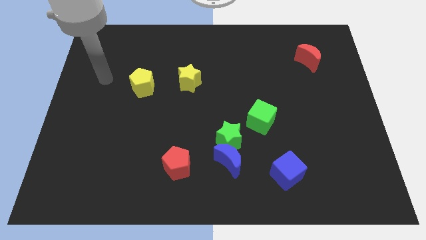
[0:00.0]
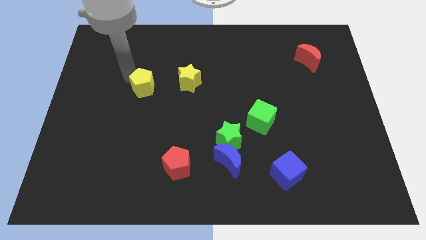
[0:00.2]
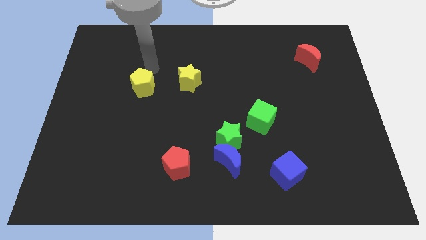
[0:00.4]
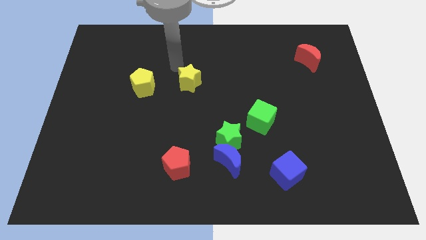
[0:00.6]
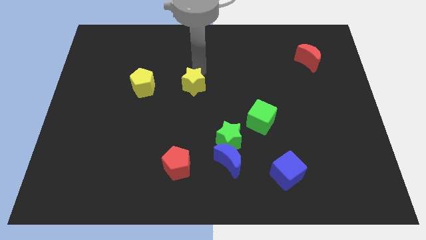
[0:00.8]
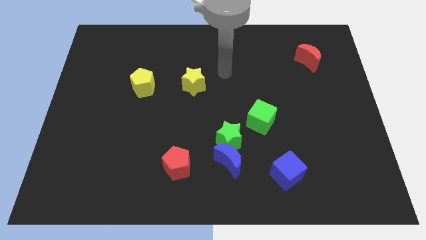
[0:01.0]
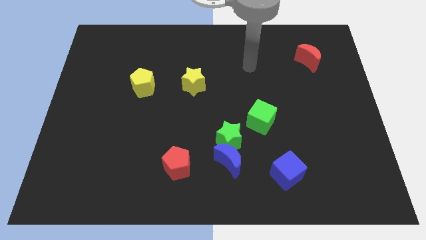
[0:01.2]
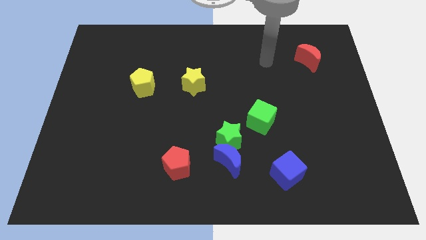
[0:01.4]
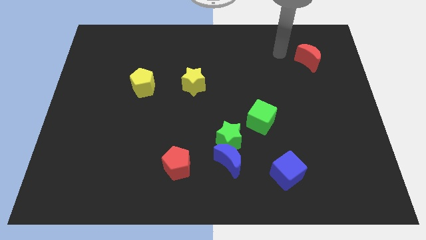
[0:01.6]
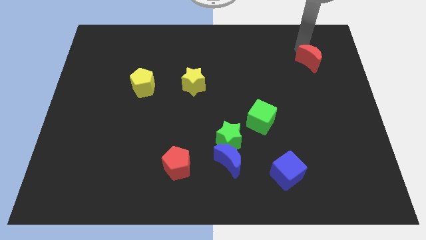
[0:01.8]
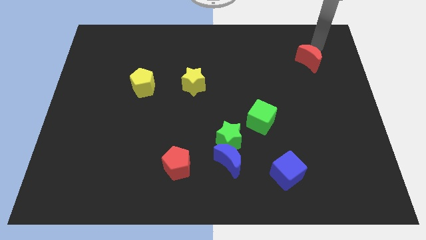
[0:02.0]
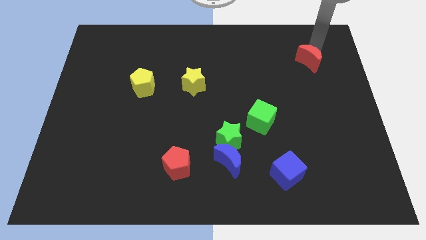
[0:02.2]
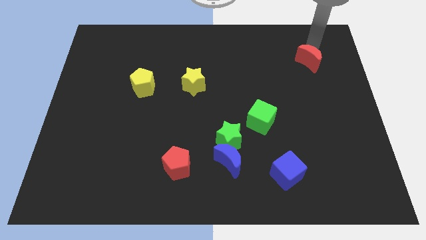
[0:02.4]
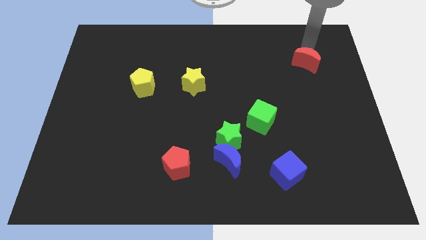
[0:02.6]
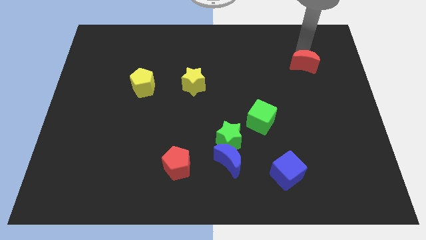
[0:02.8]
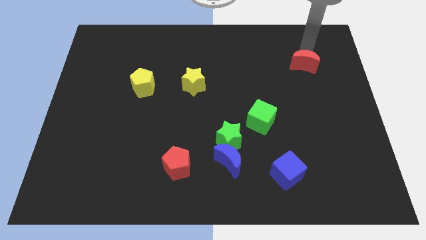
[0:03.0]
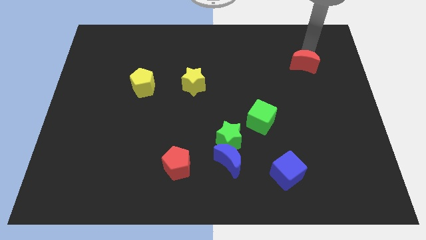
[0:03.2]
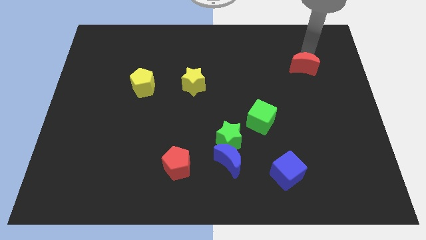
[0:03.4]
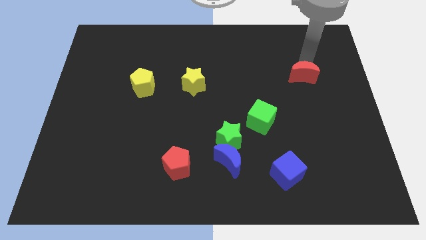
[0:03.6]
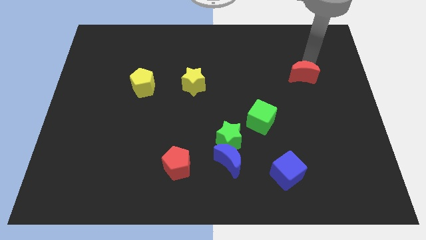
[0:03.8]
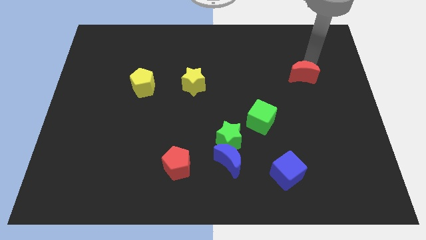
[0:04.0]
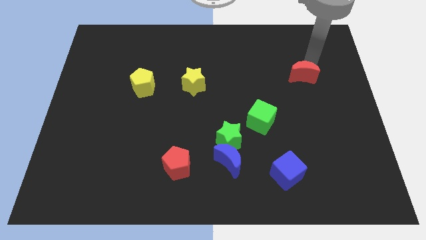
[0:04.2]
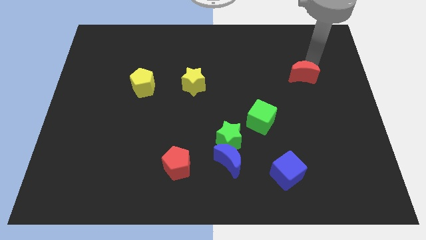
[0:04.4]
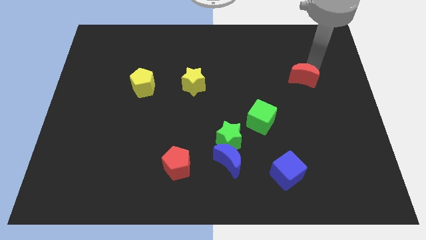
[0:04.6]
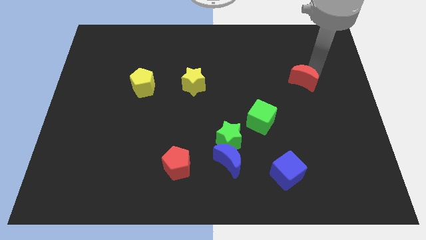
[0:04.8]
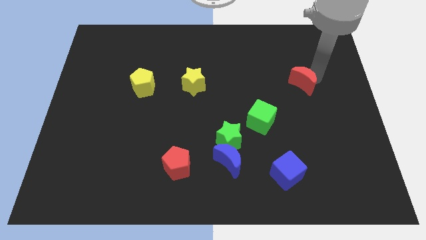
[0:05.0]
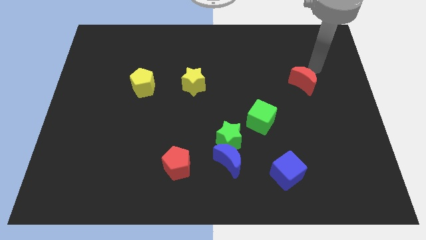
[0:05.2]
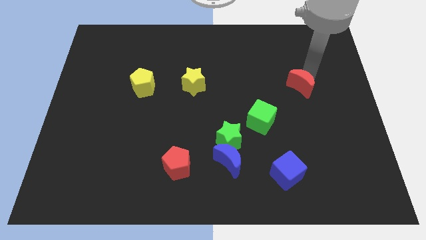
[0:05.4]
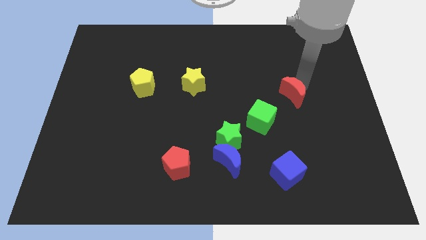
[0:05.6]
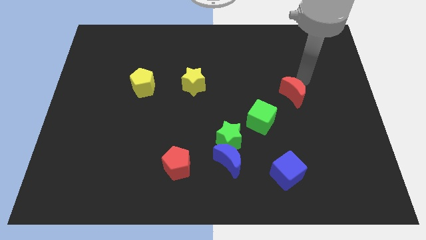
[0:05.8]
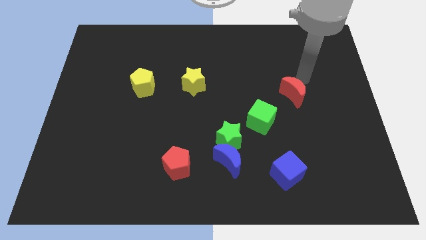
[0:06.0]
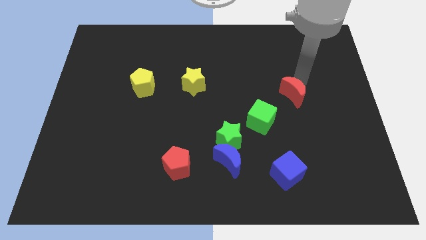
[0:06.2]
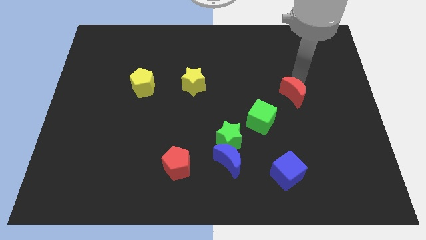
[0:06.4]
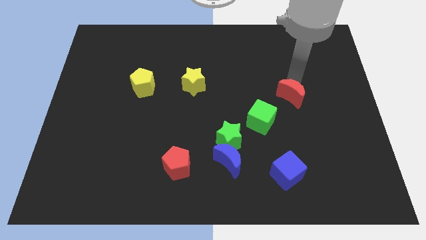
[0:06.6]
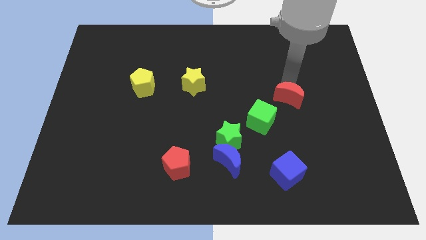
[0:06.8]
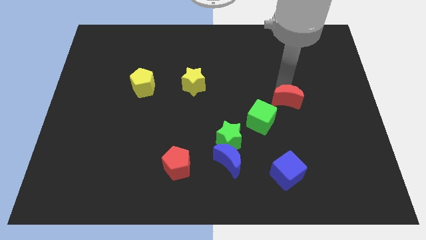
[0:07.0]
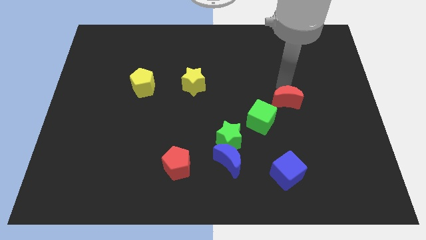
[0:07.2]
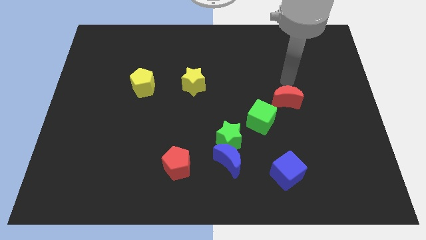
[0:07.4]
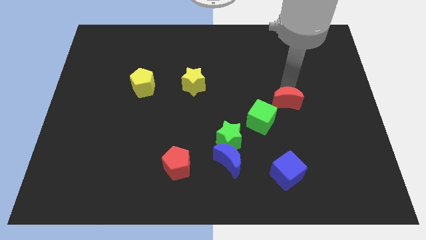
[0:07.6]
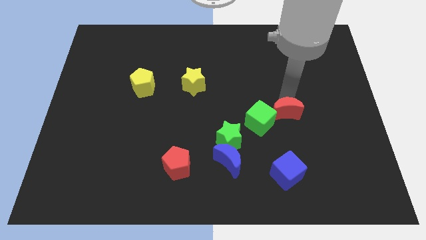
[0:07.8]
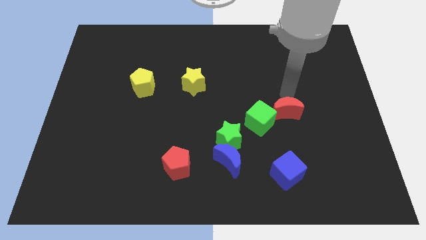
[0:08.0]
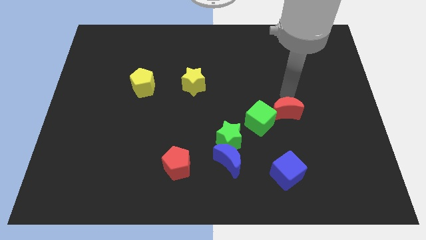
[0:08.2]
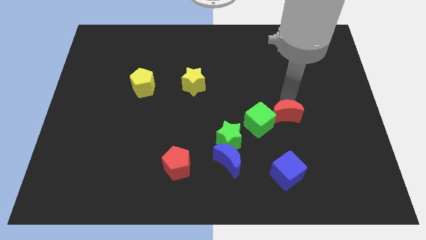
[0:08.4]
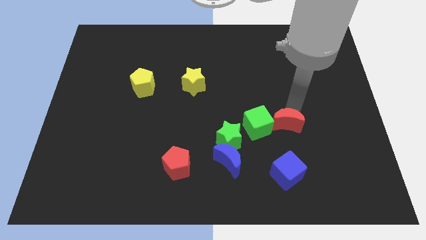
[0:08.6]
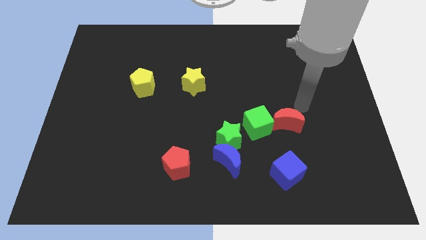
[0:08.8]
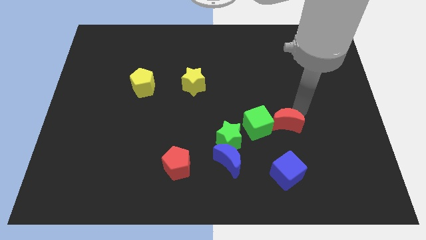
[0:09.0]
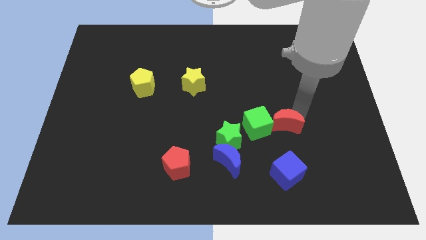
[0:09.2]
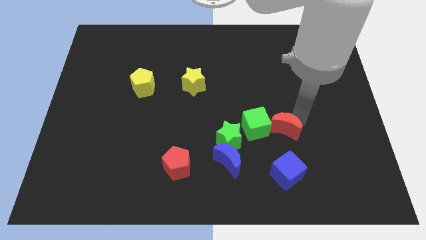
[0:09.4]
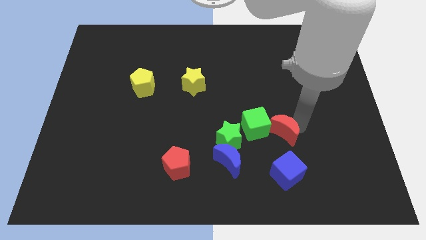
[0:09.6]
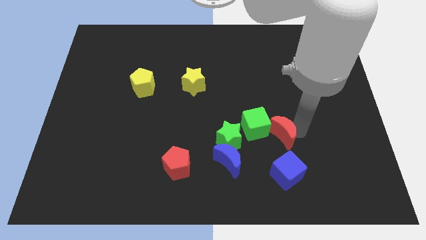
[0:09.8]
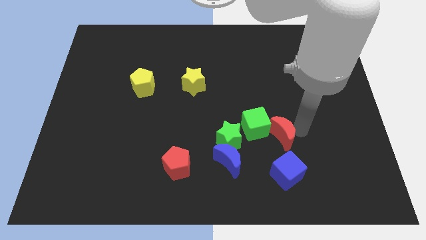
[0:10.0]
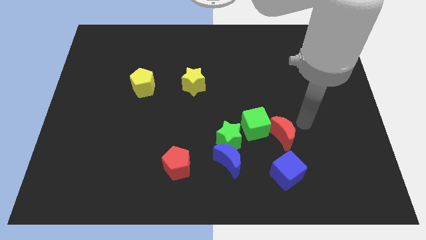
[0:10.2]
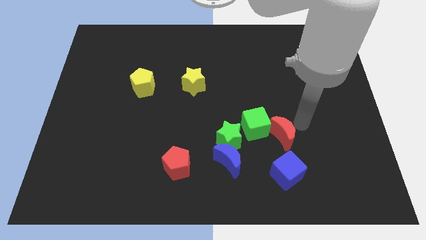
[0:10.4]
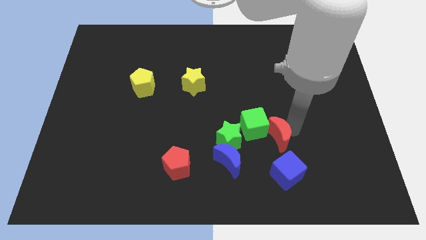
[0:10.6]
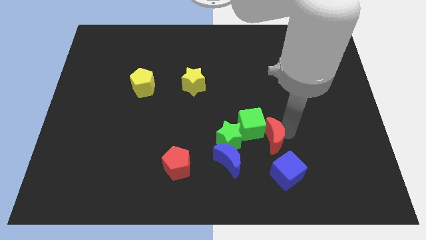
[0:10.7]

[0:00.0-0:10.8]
move the red moon diagonally up and to the right of the blue moon

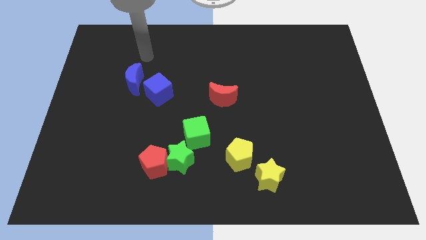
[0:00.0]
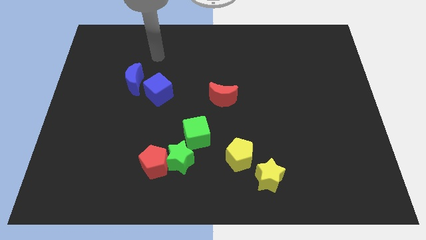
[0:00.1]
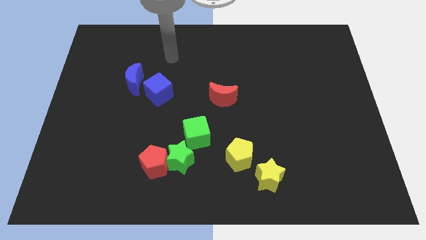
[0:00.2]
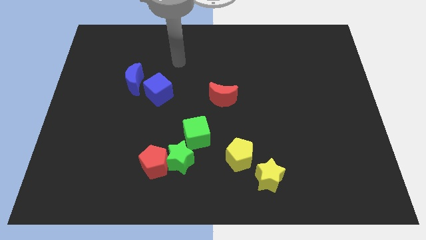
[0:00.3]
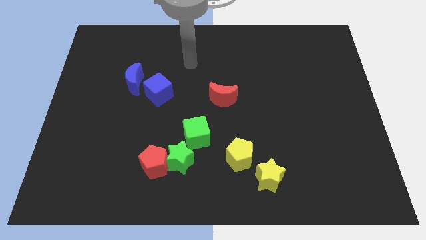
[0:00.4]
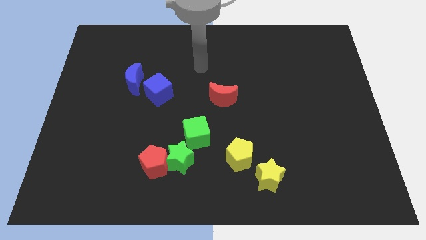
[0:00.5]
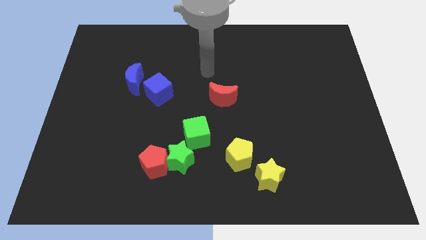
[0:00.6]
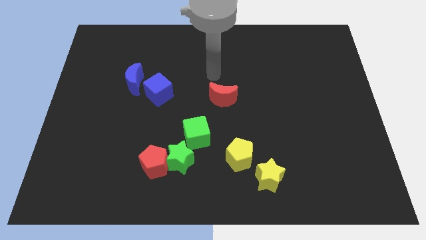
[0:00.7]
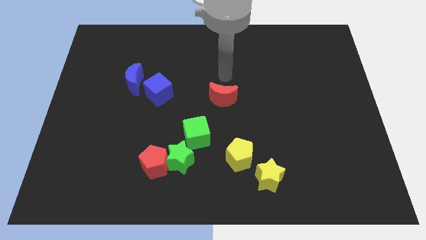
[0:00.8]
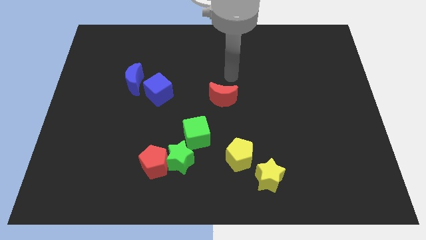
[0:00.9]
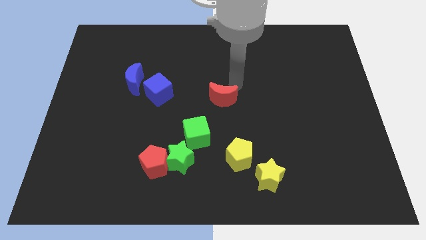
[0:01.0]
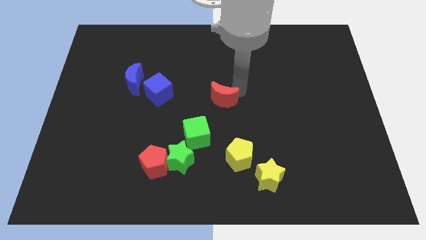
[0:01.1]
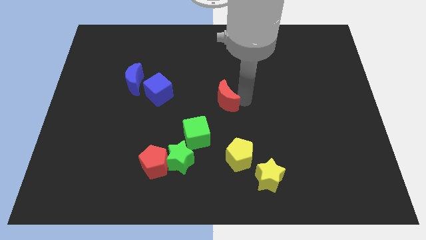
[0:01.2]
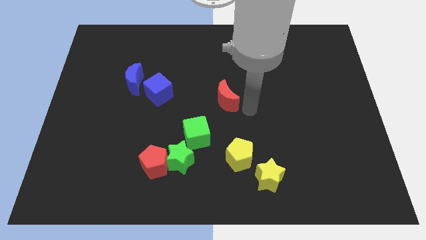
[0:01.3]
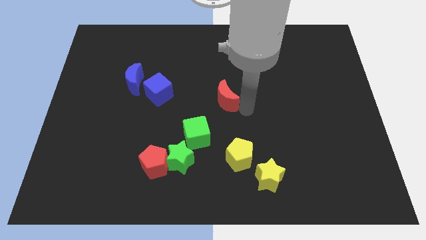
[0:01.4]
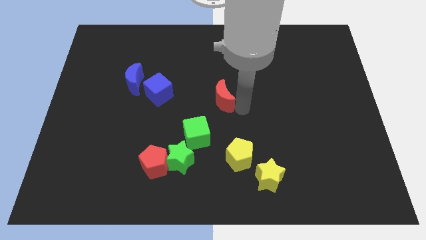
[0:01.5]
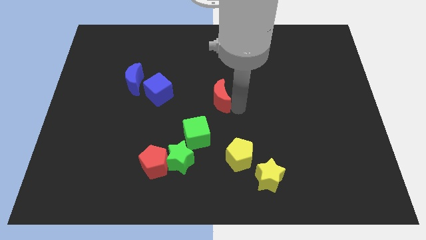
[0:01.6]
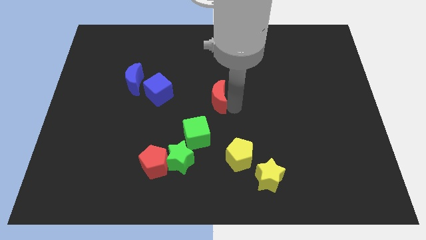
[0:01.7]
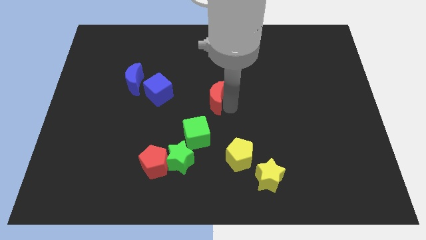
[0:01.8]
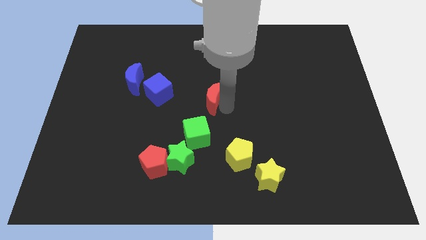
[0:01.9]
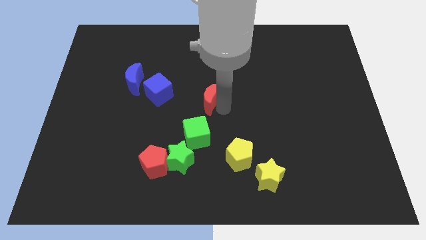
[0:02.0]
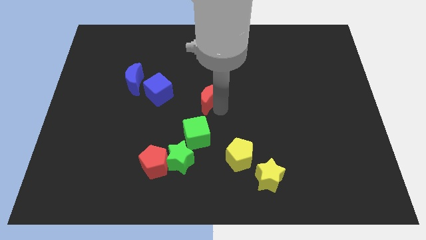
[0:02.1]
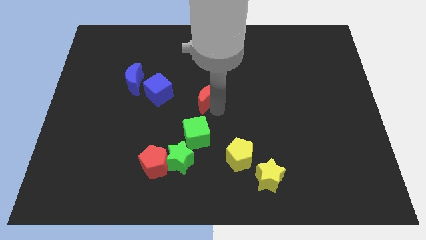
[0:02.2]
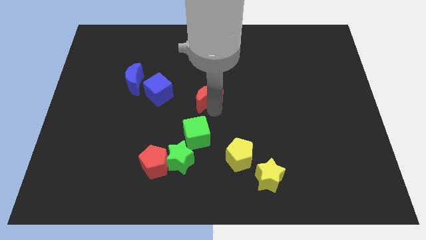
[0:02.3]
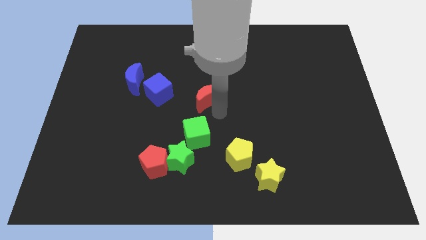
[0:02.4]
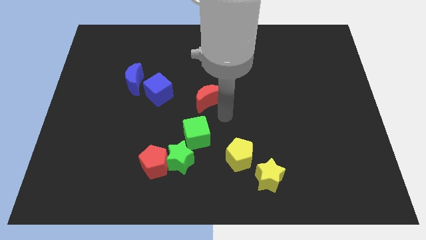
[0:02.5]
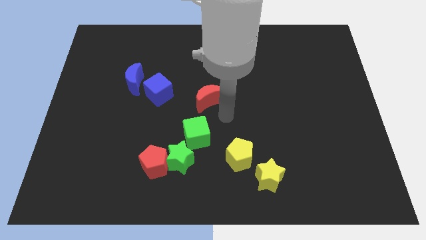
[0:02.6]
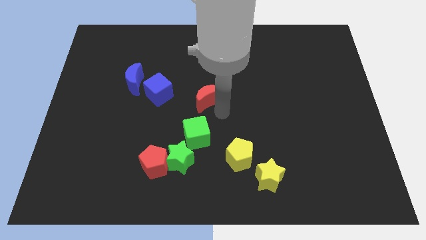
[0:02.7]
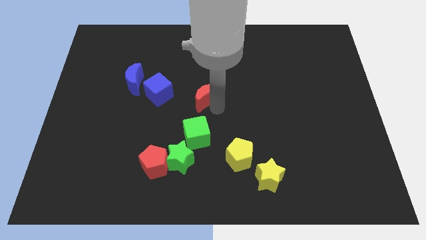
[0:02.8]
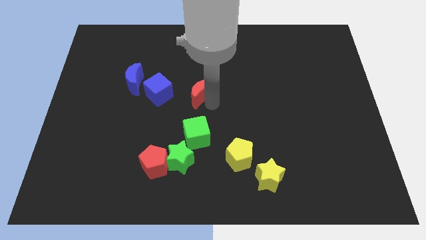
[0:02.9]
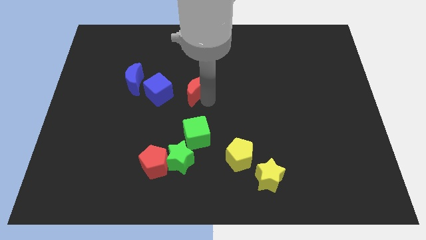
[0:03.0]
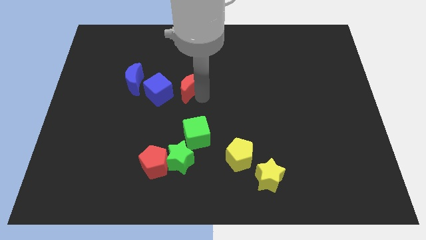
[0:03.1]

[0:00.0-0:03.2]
slide the red moon to the top right side of the blue cube
